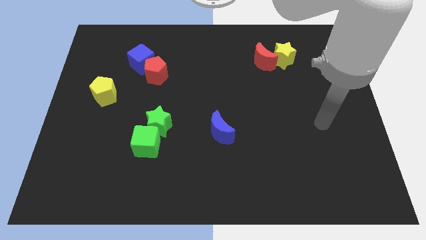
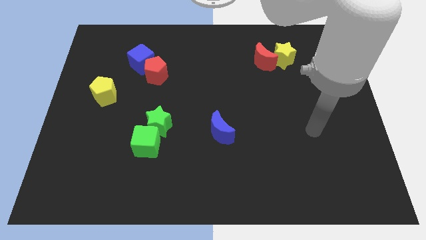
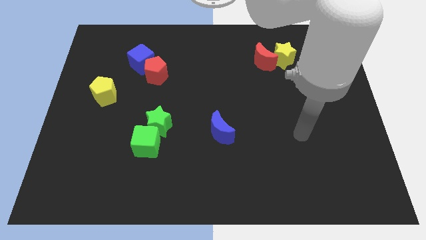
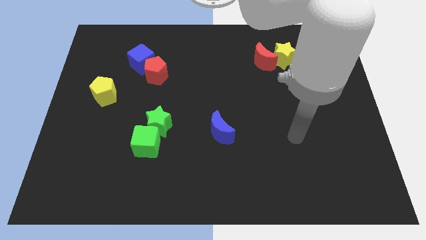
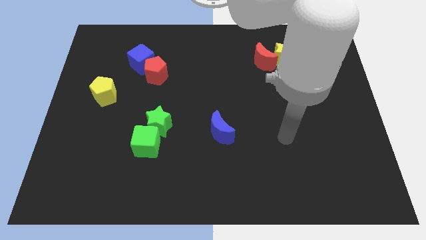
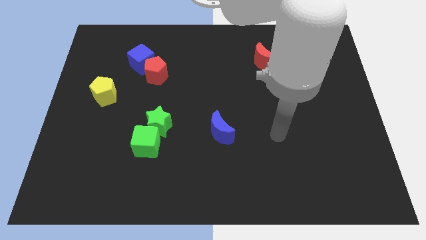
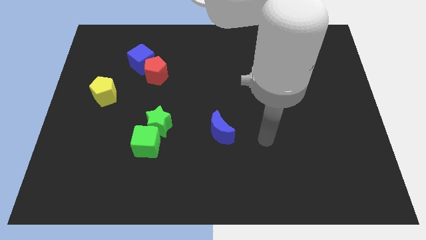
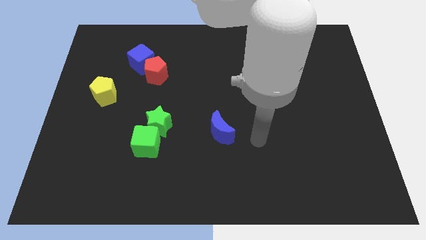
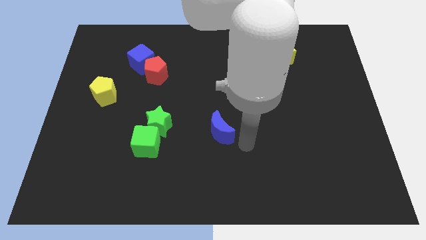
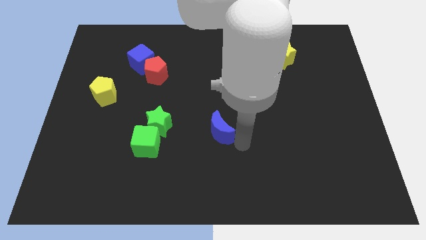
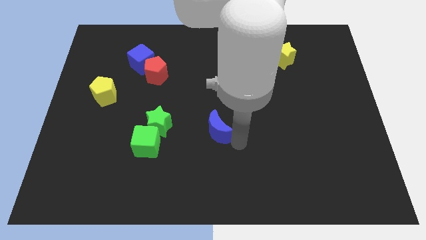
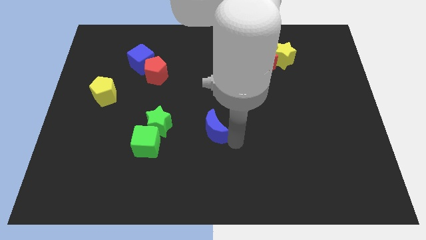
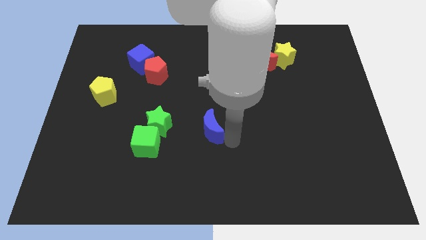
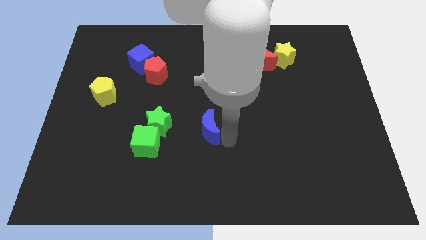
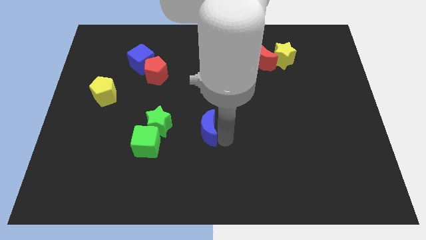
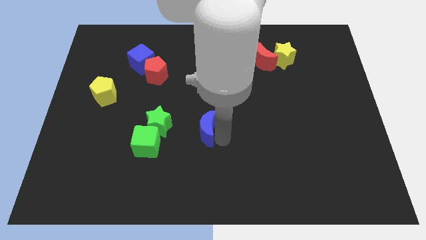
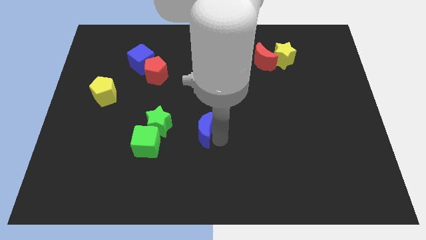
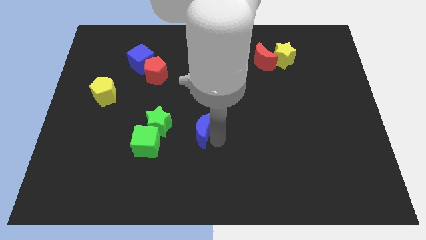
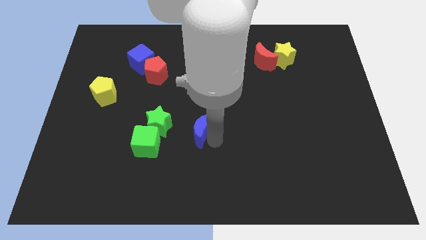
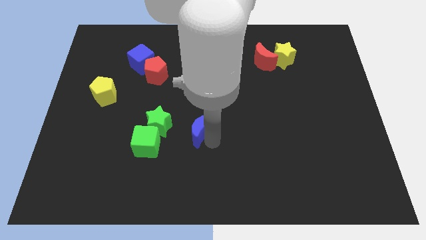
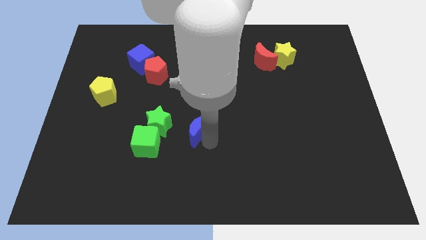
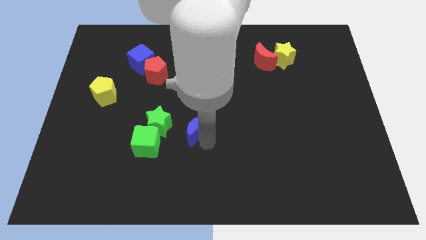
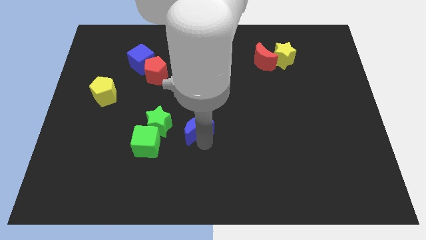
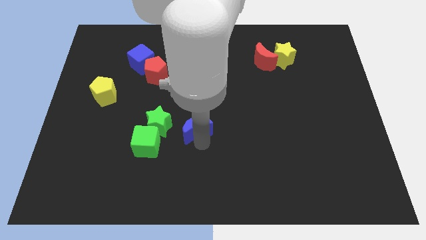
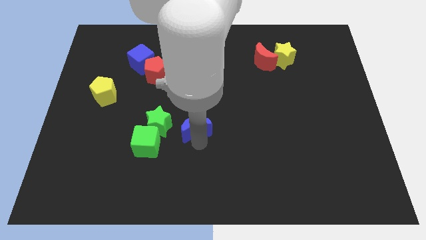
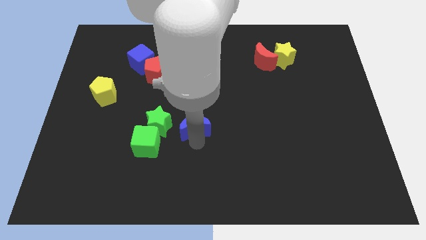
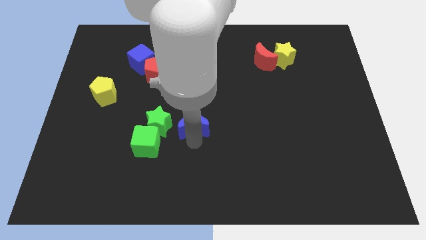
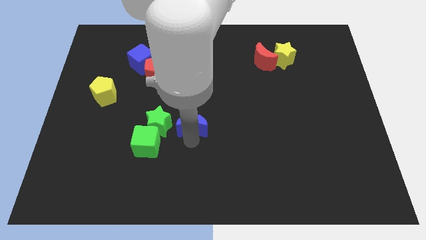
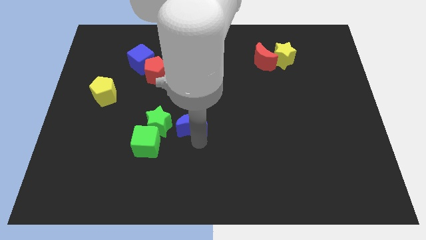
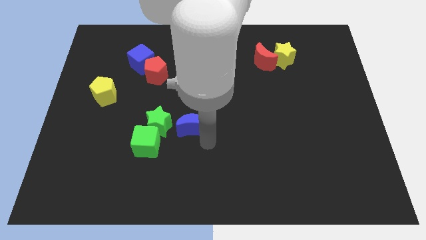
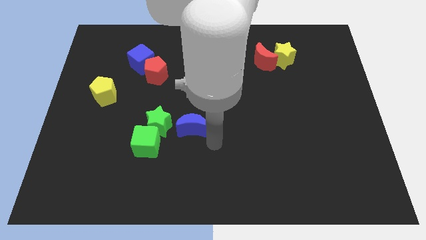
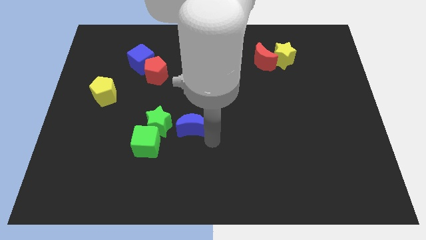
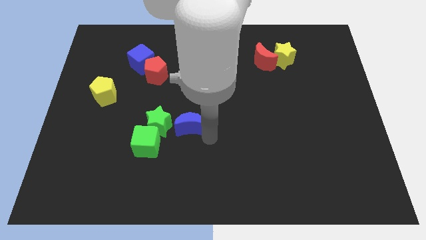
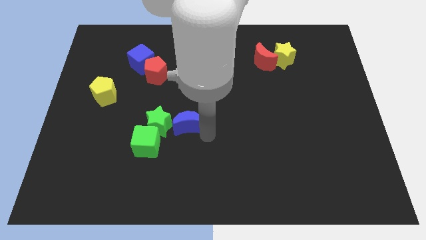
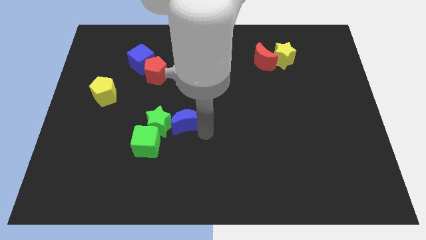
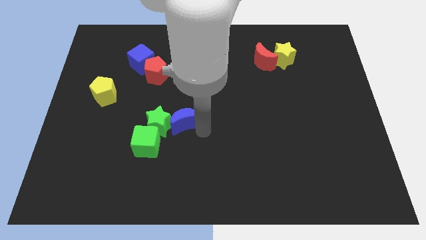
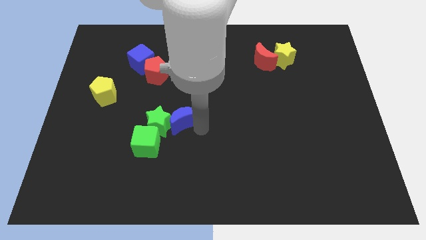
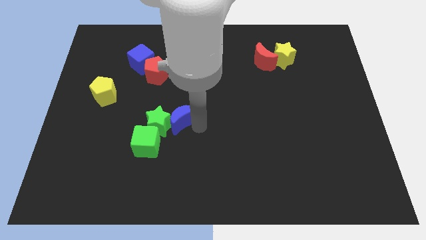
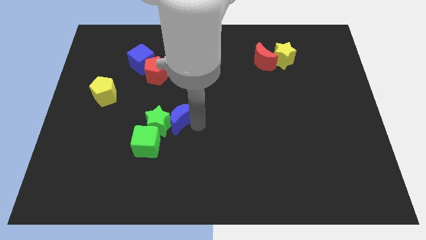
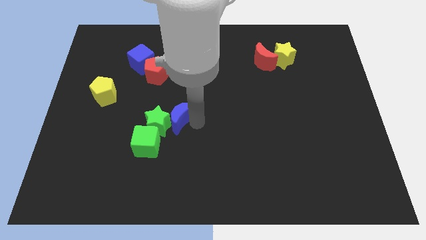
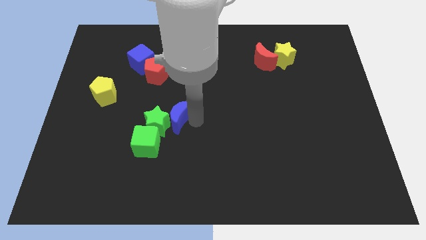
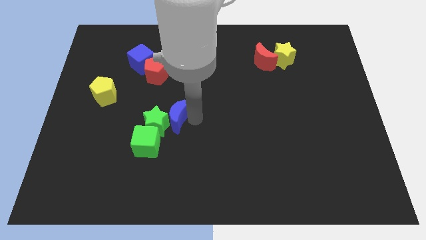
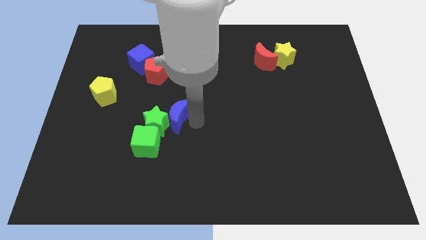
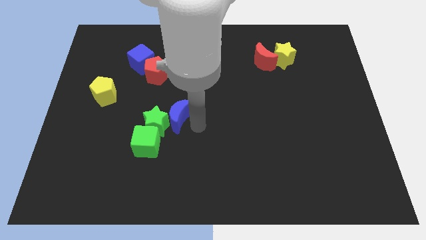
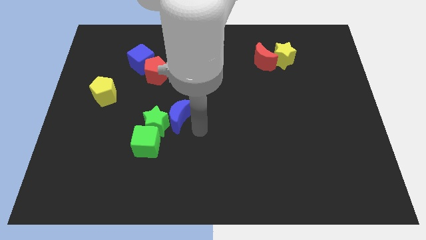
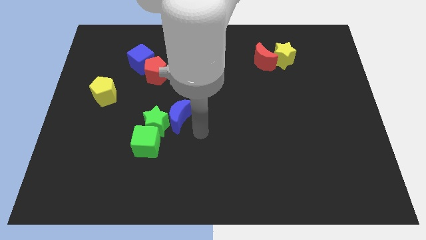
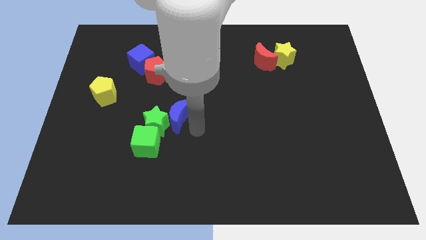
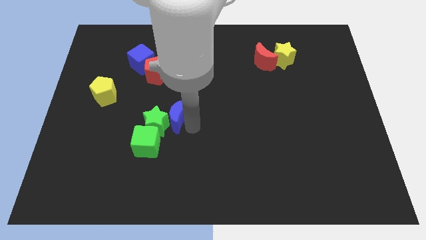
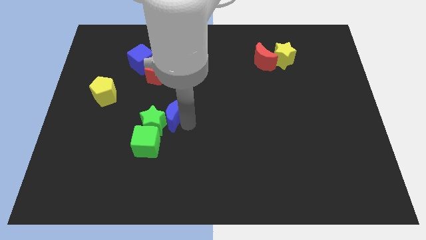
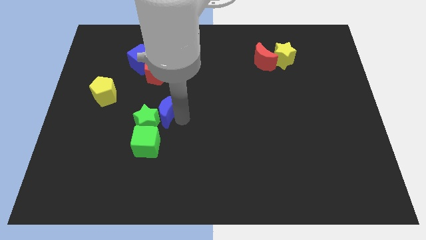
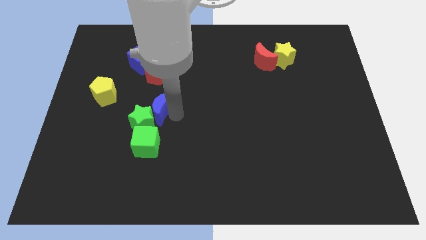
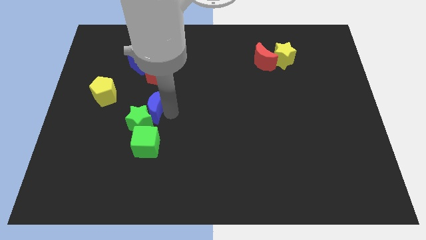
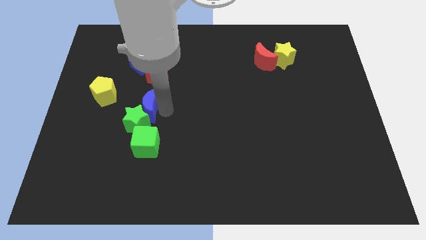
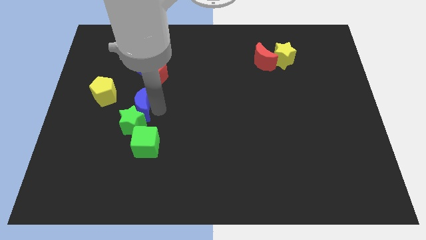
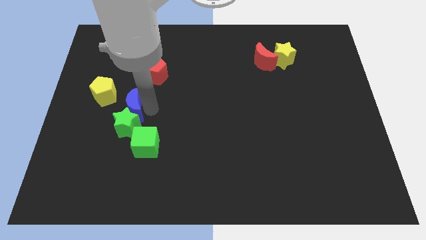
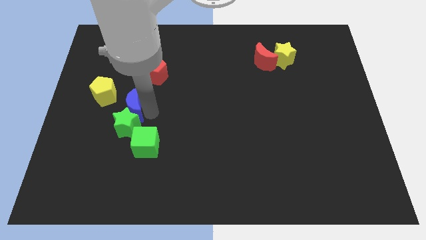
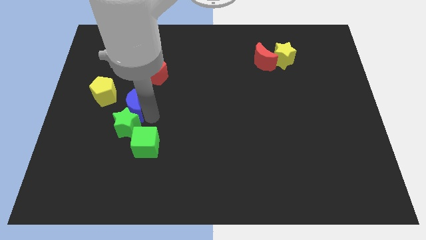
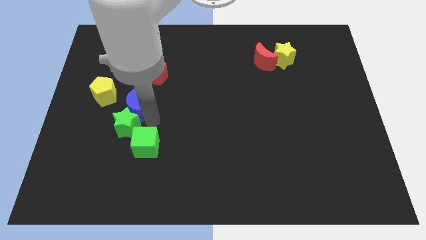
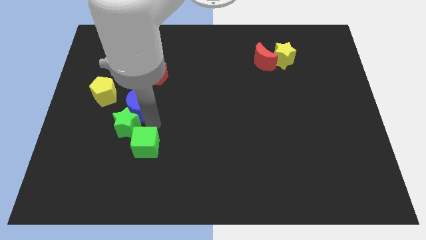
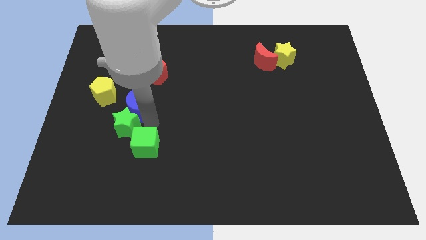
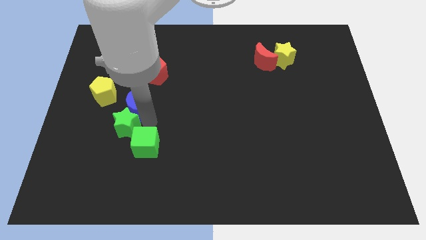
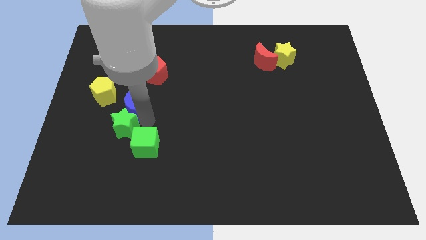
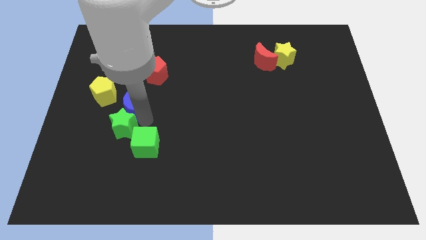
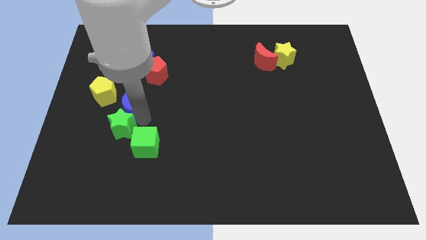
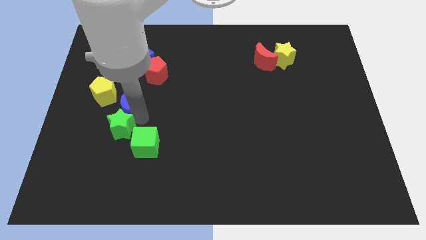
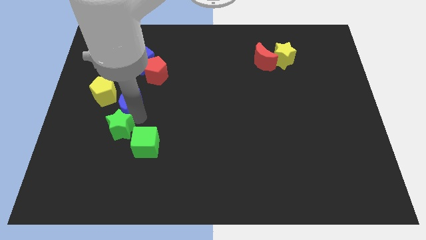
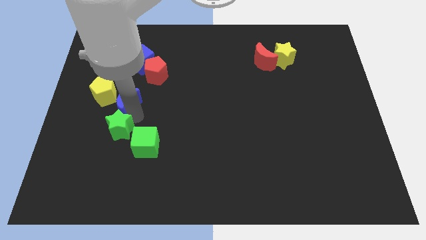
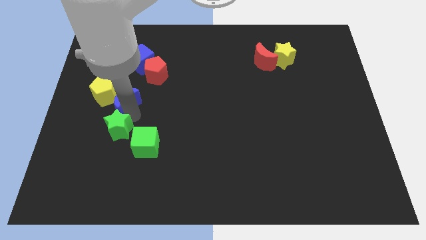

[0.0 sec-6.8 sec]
slide the blue moon towards the yellow pentagon

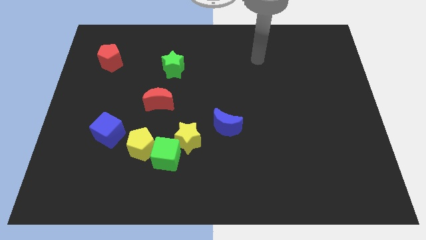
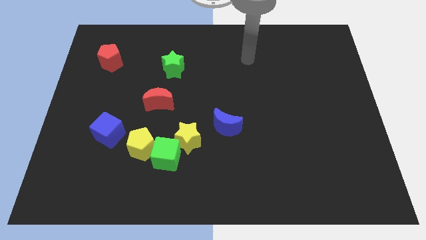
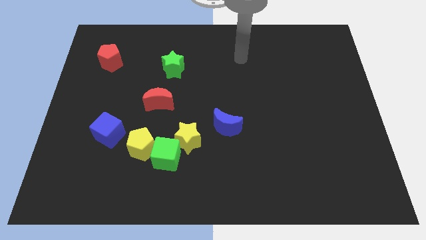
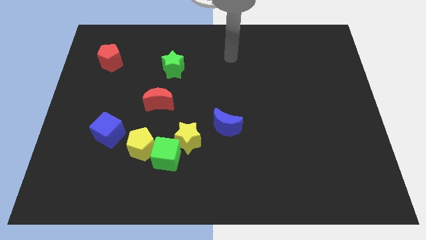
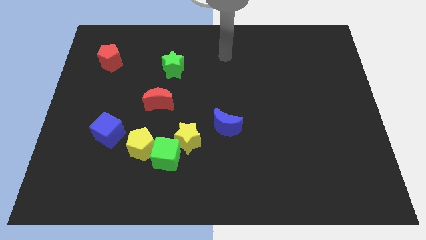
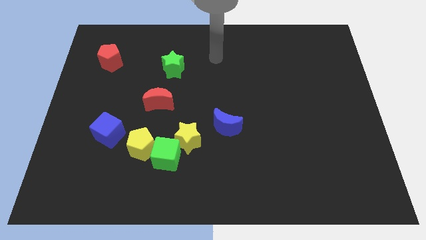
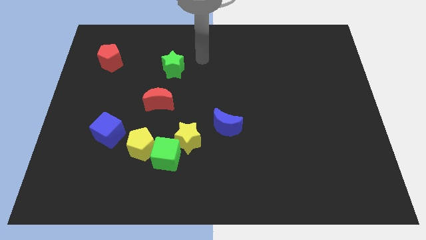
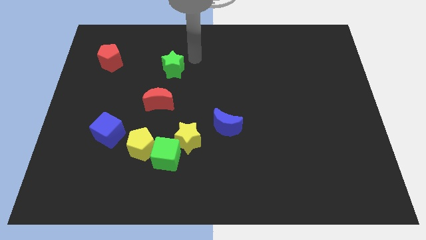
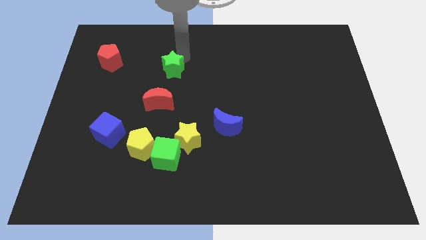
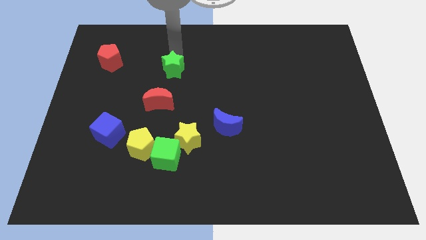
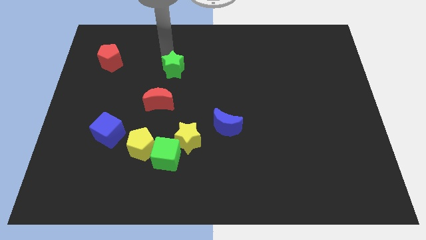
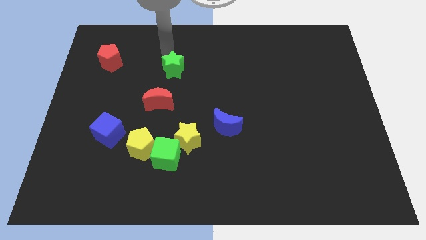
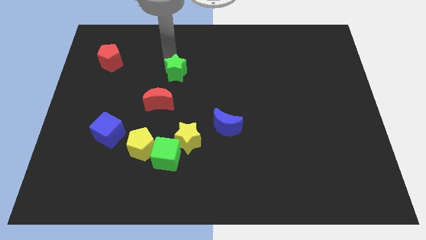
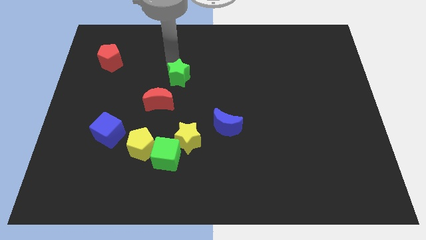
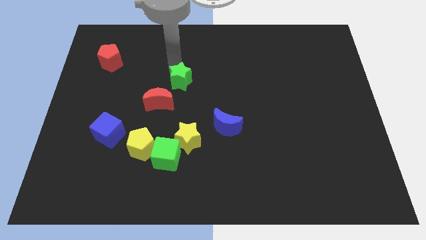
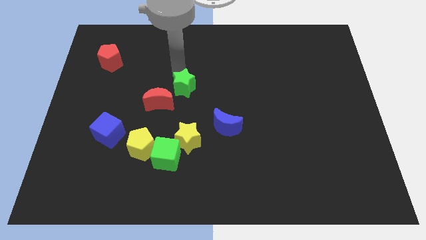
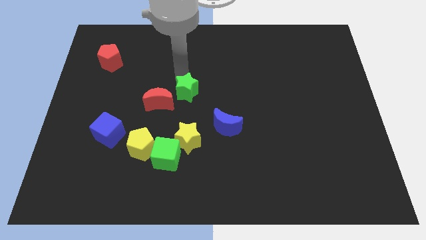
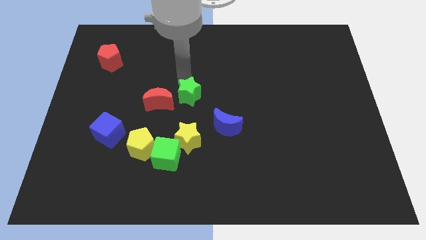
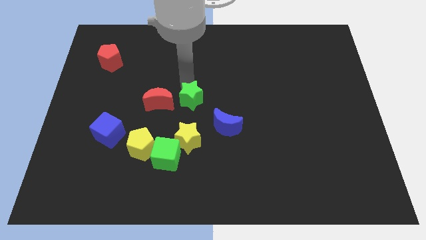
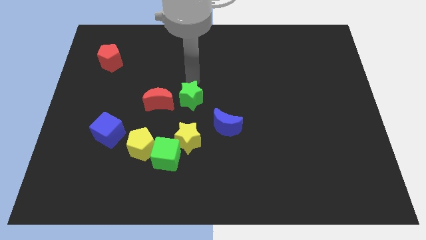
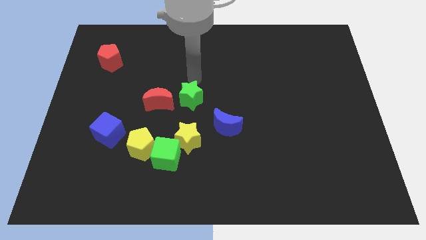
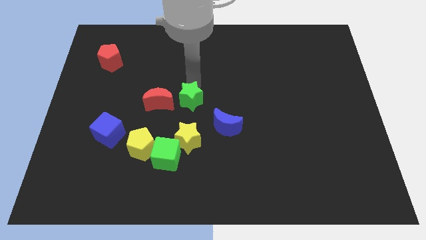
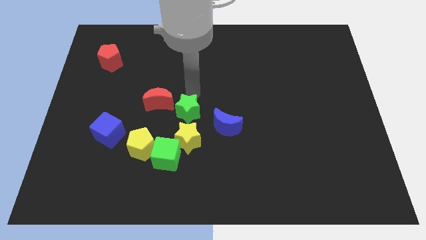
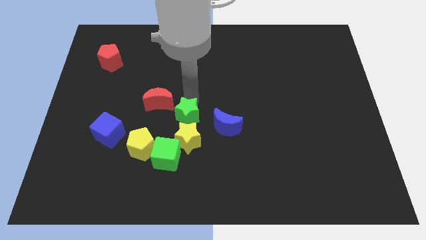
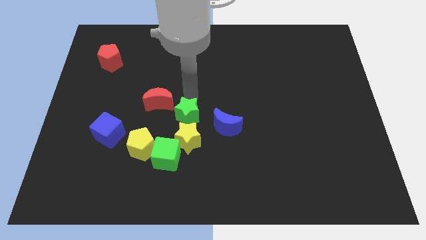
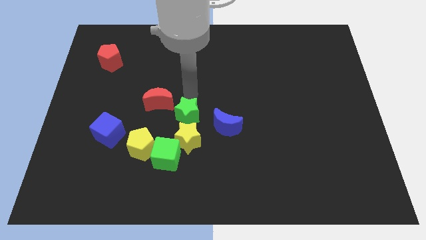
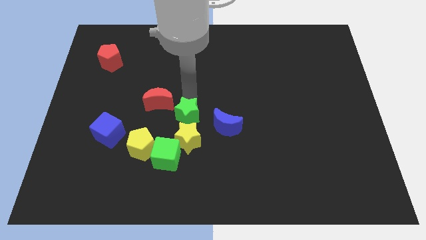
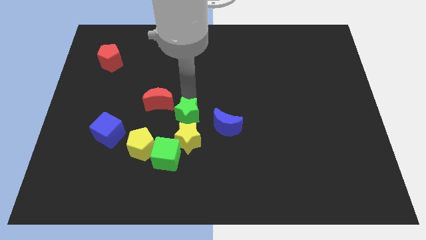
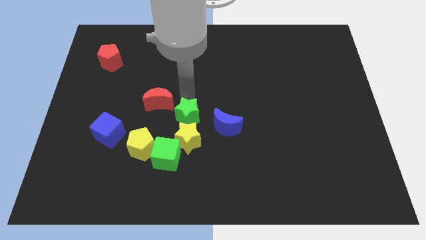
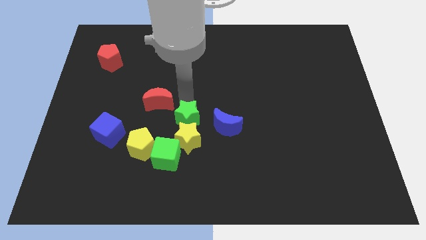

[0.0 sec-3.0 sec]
move the green star towards the yellow star
